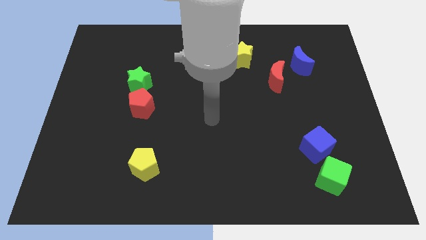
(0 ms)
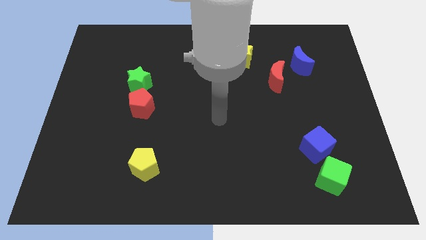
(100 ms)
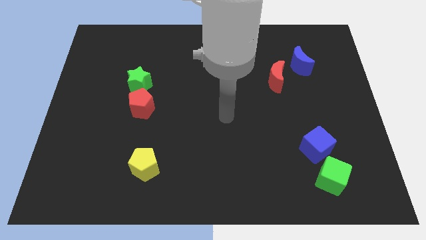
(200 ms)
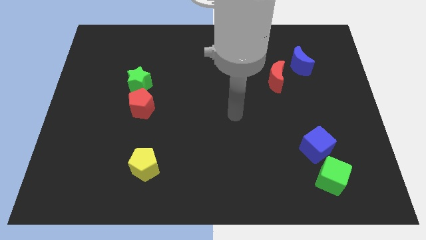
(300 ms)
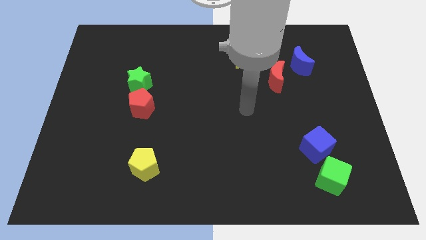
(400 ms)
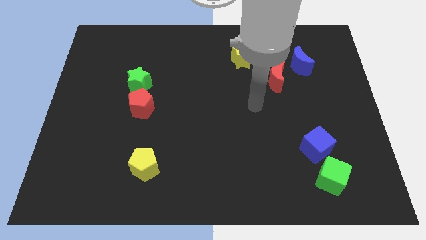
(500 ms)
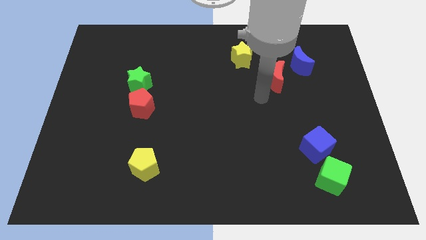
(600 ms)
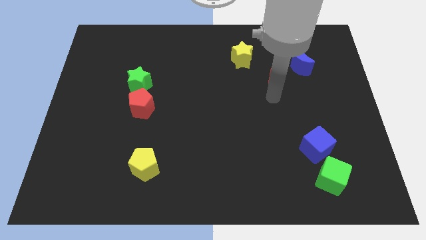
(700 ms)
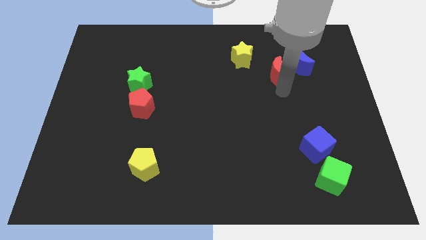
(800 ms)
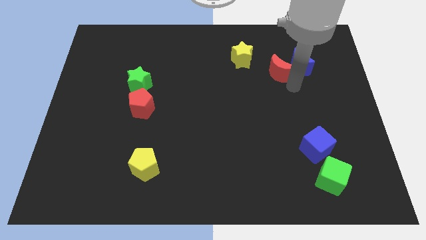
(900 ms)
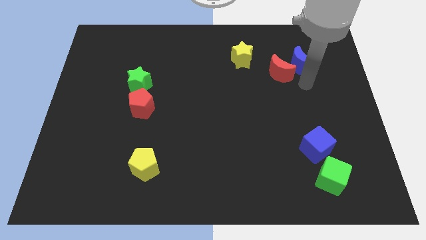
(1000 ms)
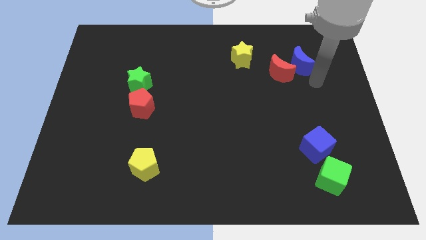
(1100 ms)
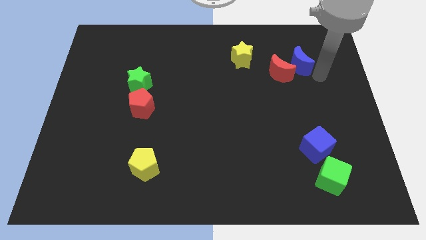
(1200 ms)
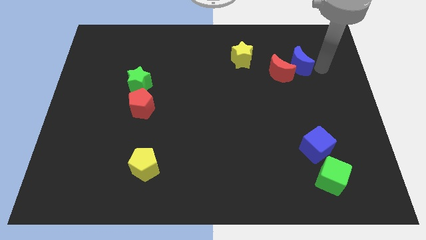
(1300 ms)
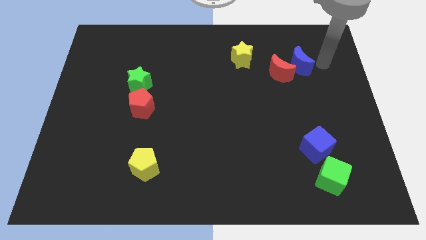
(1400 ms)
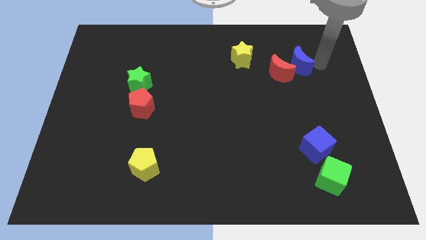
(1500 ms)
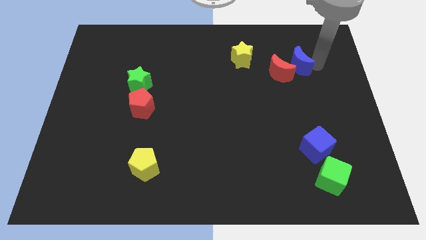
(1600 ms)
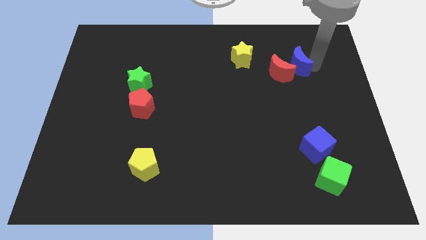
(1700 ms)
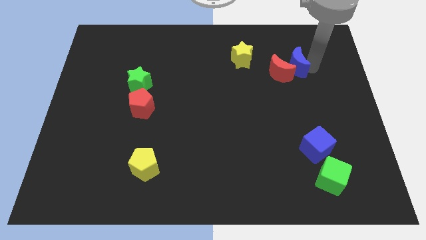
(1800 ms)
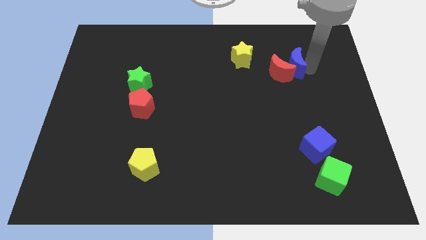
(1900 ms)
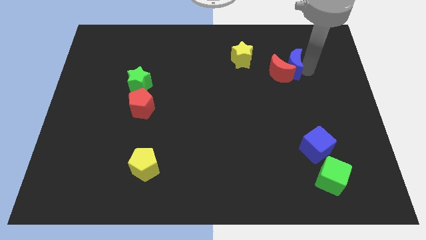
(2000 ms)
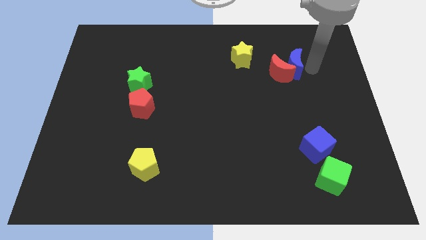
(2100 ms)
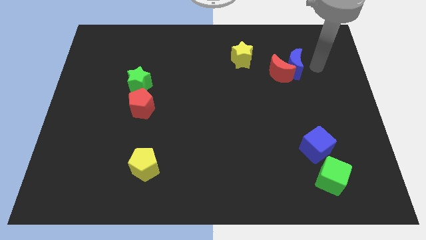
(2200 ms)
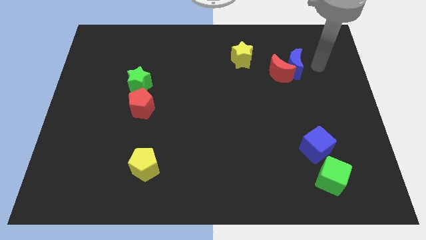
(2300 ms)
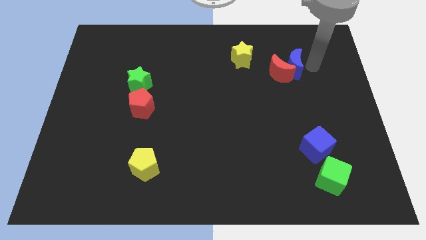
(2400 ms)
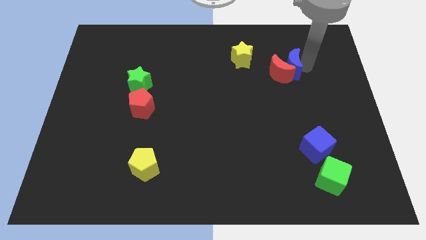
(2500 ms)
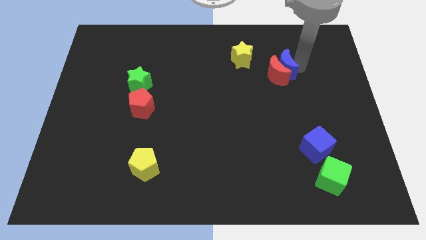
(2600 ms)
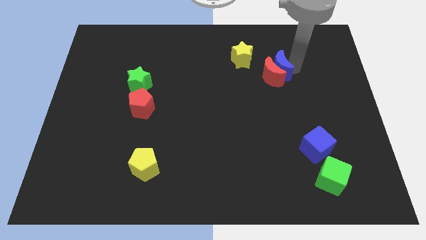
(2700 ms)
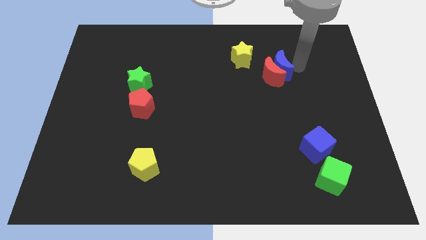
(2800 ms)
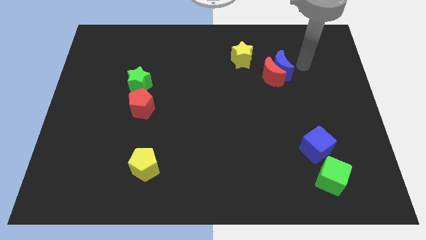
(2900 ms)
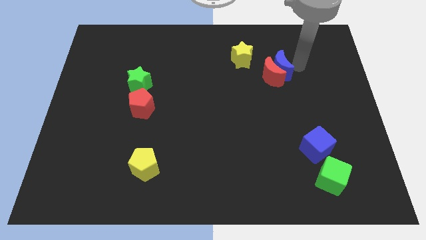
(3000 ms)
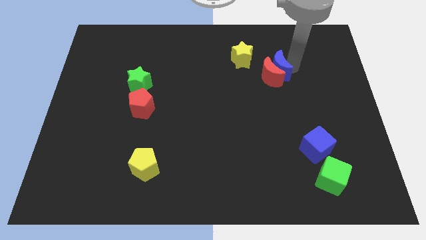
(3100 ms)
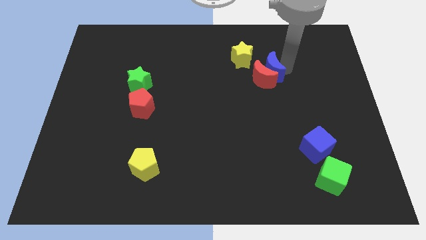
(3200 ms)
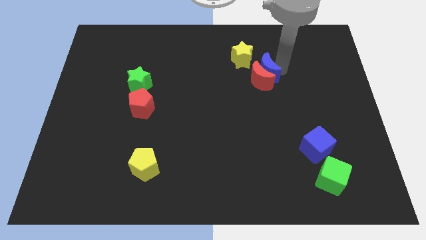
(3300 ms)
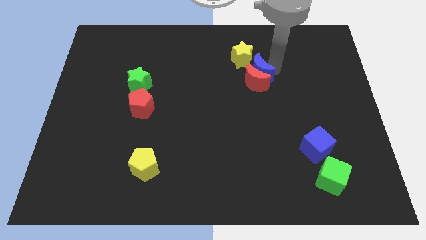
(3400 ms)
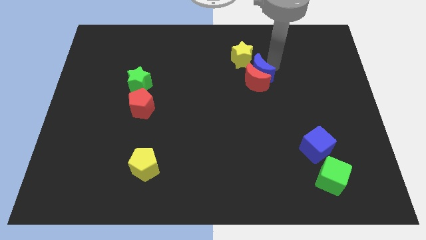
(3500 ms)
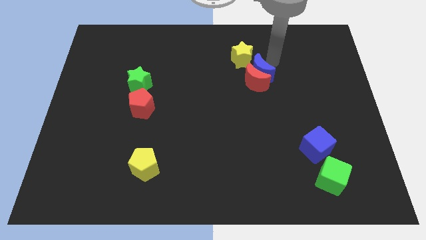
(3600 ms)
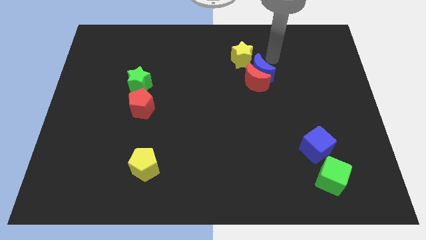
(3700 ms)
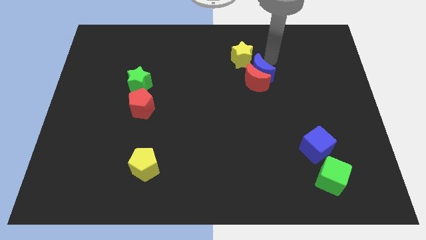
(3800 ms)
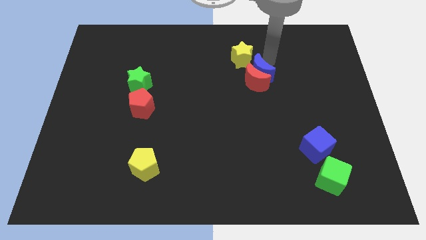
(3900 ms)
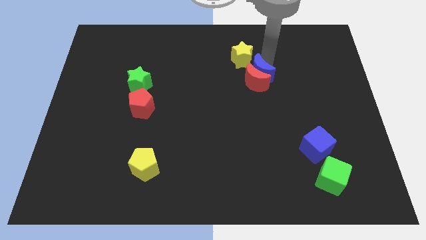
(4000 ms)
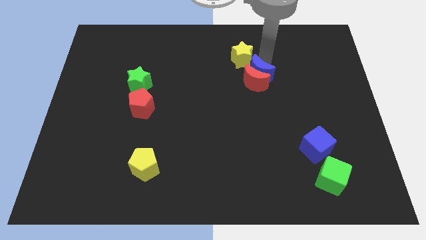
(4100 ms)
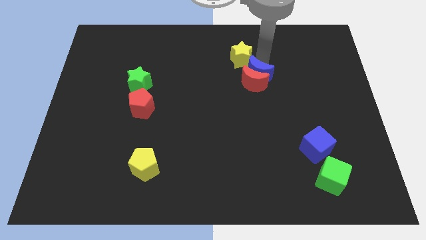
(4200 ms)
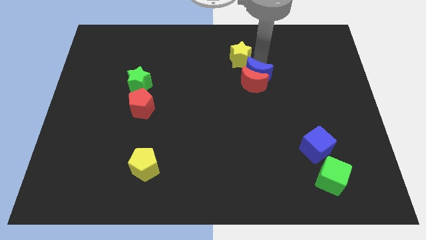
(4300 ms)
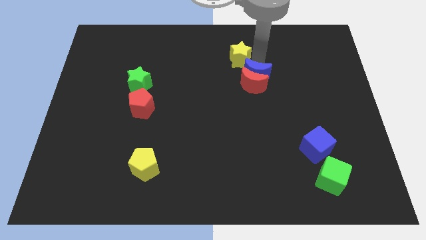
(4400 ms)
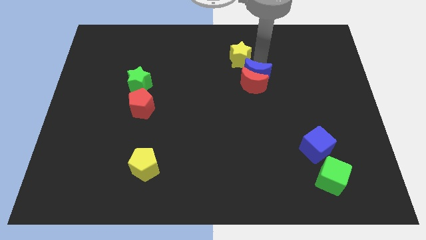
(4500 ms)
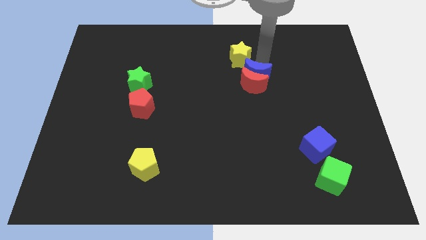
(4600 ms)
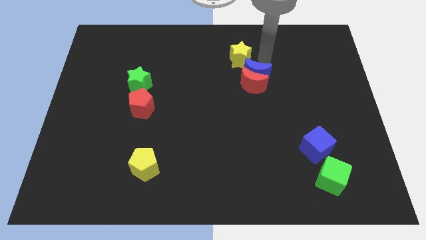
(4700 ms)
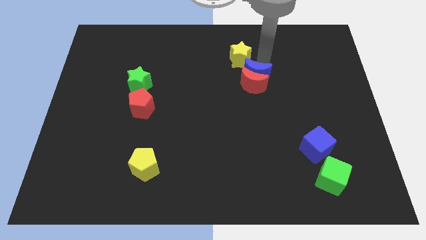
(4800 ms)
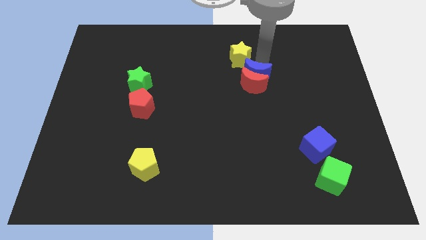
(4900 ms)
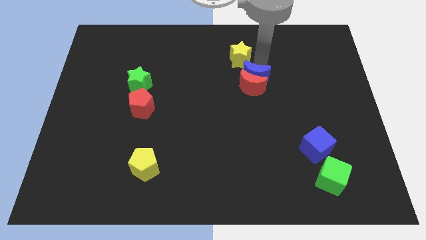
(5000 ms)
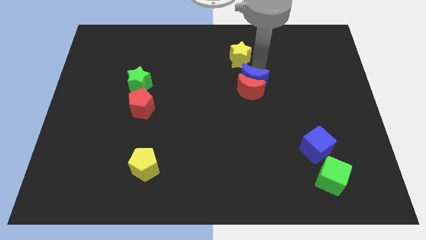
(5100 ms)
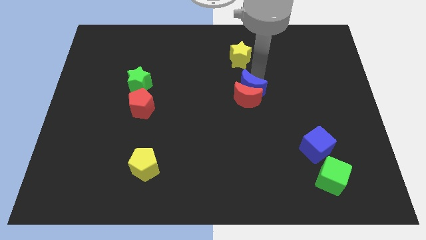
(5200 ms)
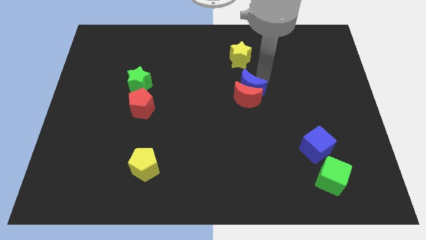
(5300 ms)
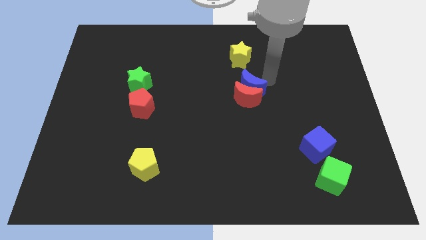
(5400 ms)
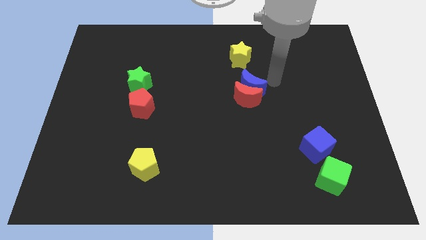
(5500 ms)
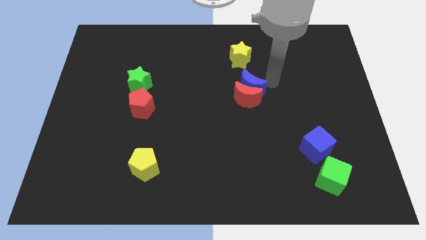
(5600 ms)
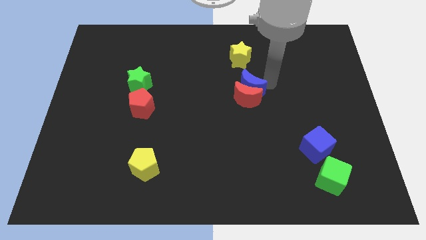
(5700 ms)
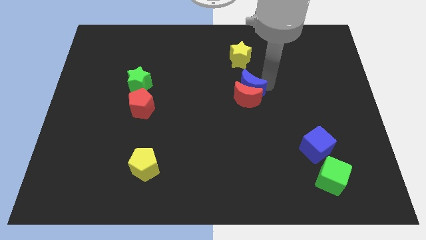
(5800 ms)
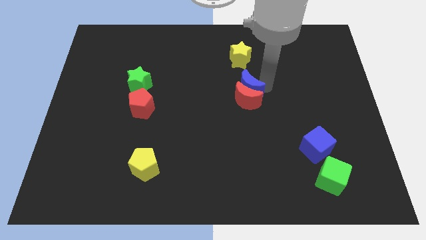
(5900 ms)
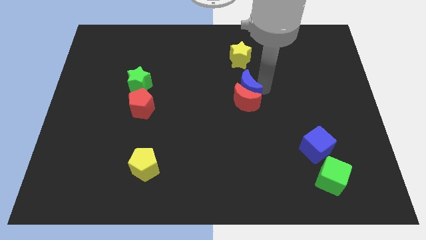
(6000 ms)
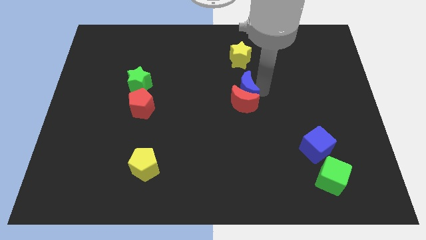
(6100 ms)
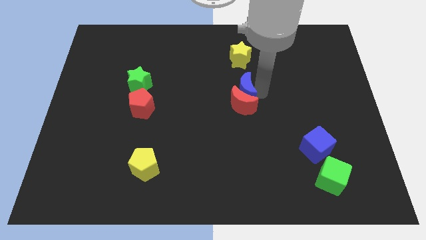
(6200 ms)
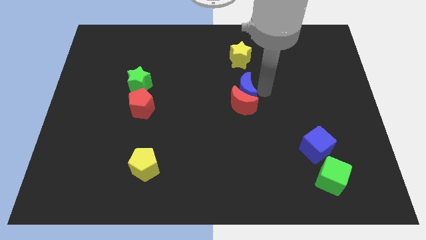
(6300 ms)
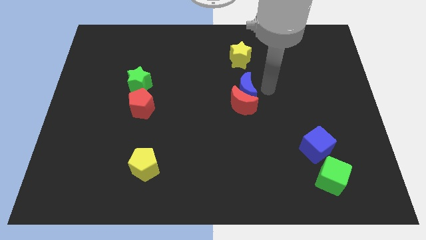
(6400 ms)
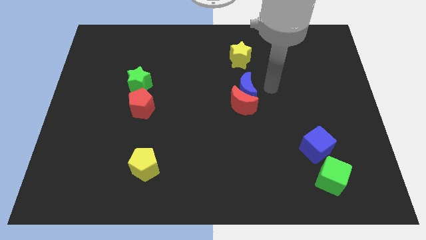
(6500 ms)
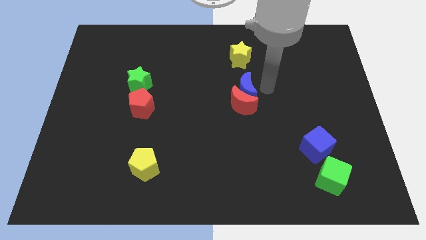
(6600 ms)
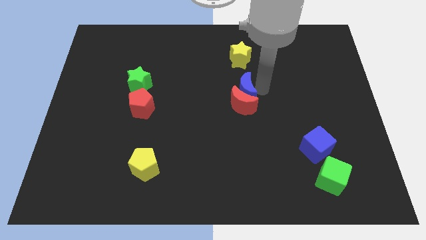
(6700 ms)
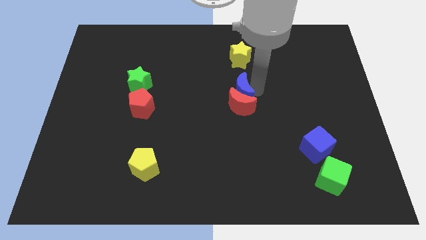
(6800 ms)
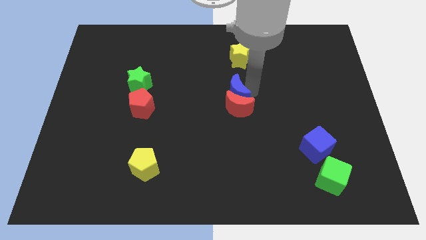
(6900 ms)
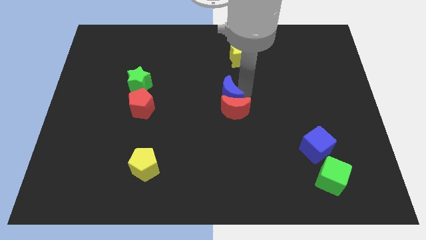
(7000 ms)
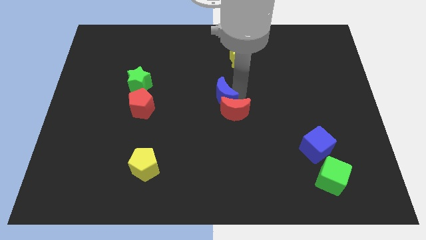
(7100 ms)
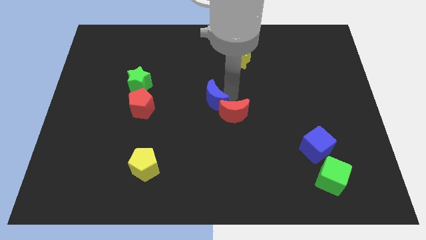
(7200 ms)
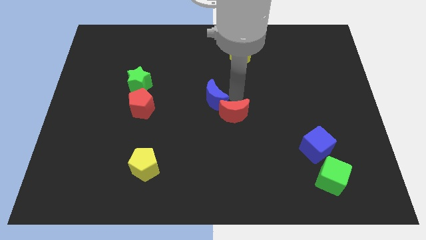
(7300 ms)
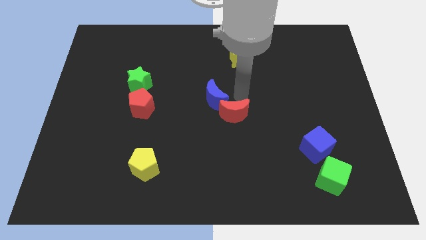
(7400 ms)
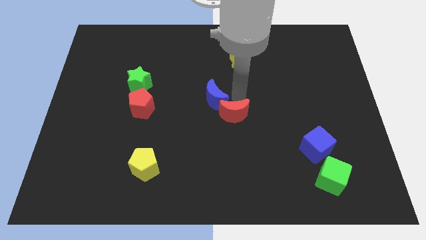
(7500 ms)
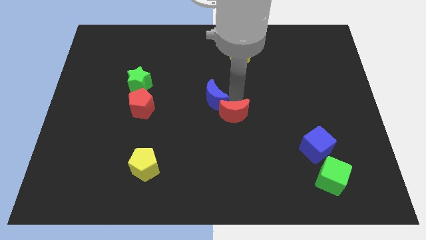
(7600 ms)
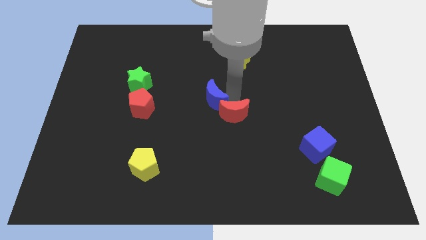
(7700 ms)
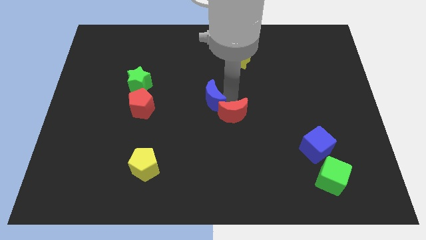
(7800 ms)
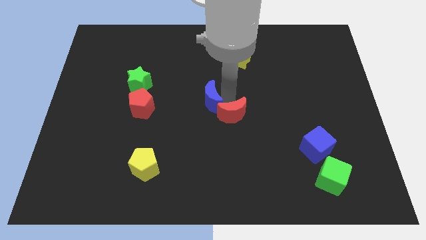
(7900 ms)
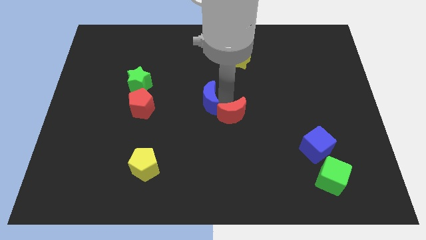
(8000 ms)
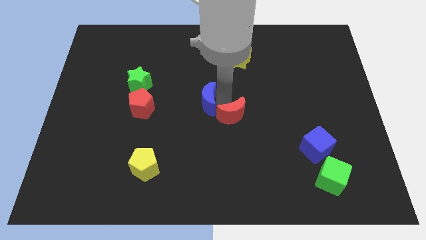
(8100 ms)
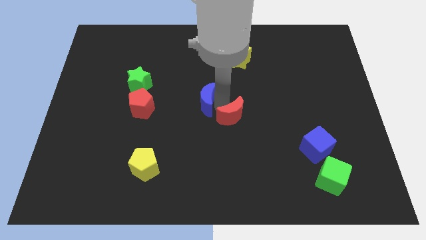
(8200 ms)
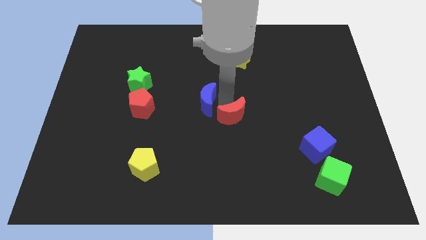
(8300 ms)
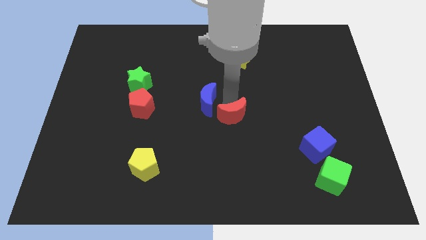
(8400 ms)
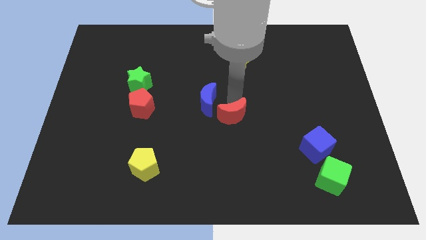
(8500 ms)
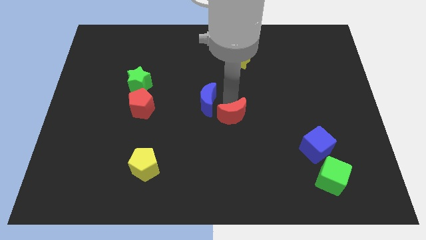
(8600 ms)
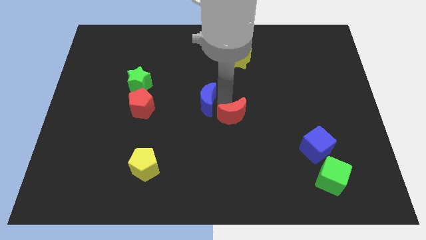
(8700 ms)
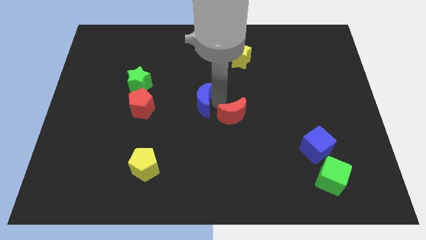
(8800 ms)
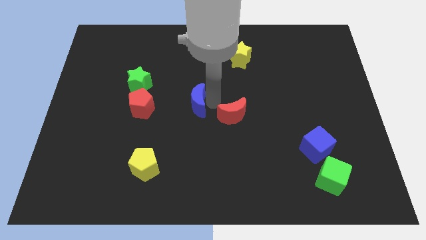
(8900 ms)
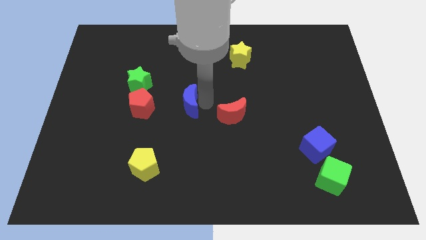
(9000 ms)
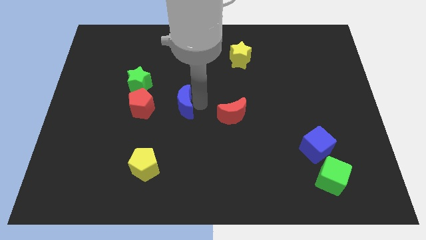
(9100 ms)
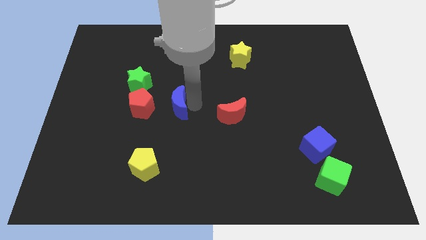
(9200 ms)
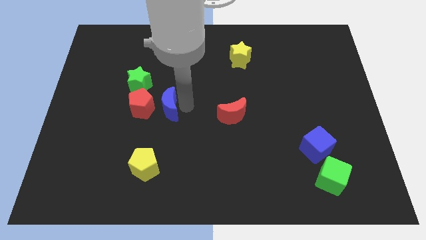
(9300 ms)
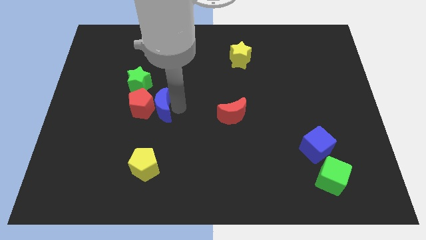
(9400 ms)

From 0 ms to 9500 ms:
move the blue moon next to the red pentagon
